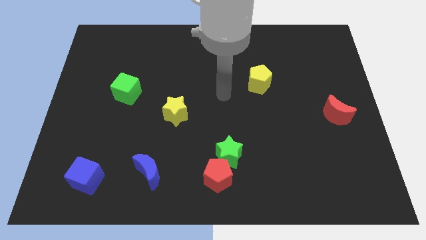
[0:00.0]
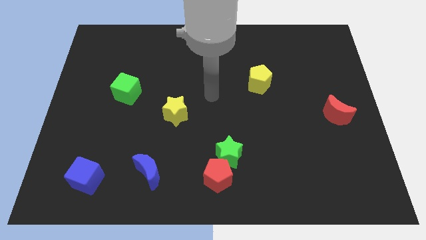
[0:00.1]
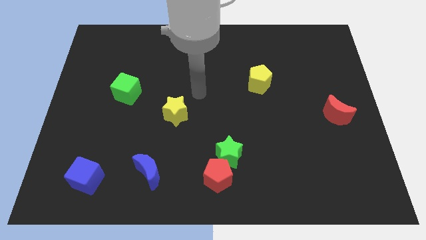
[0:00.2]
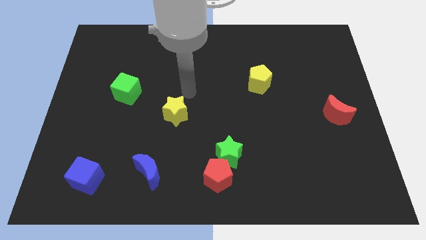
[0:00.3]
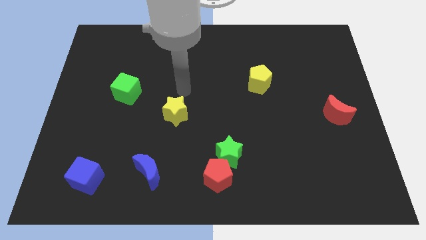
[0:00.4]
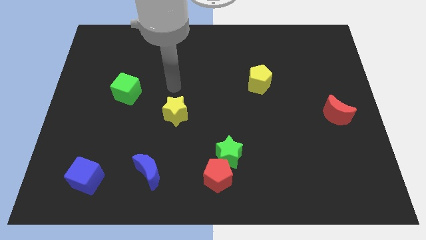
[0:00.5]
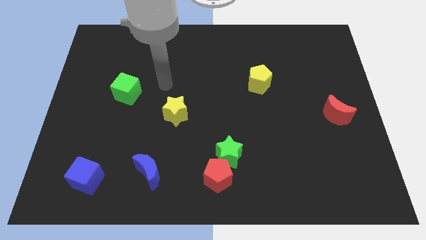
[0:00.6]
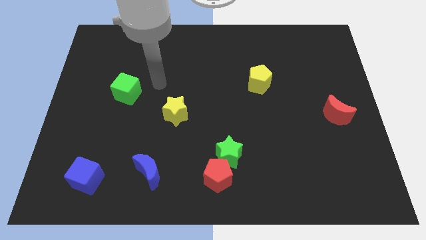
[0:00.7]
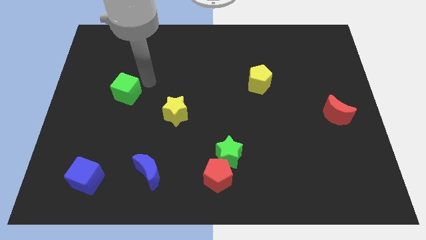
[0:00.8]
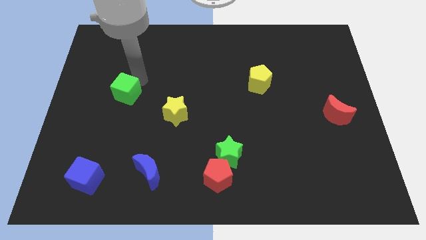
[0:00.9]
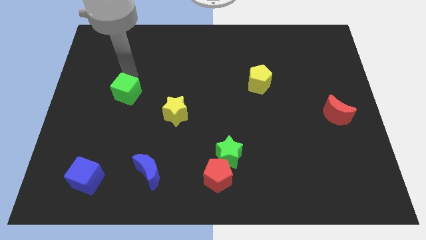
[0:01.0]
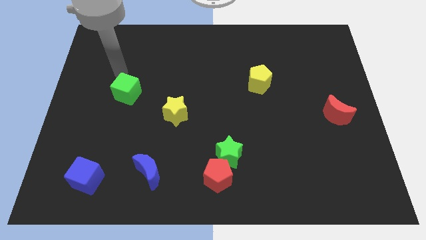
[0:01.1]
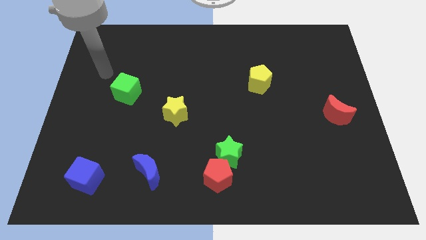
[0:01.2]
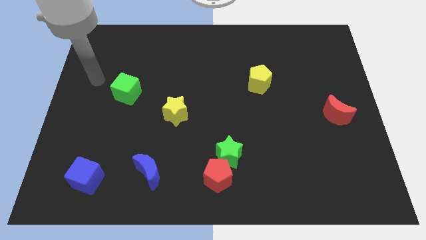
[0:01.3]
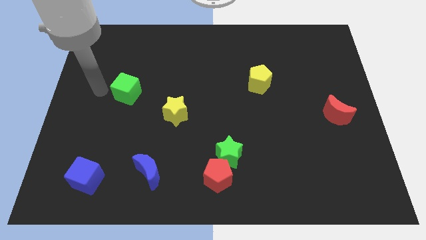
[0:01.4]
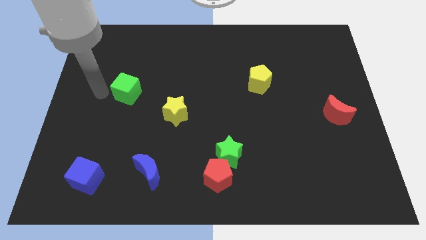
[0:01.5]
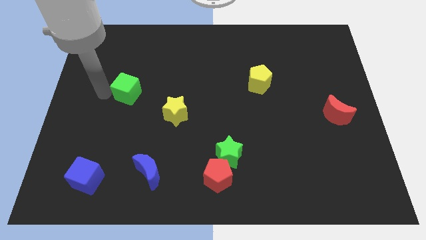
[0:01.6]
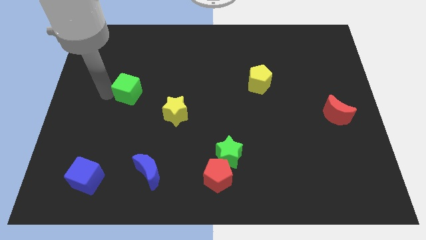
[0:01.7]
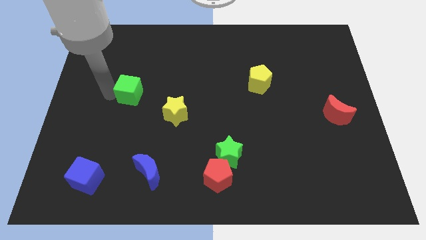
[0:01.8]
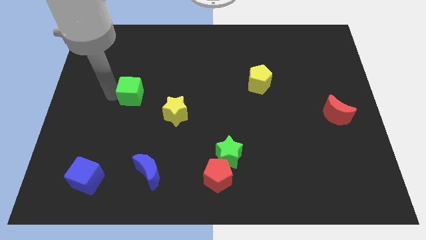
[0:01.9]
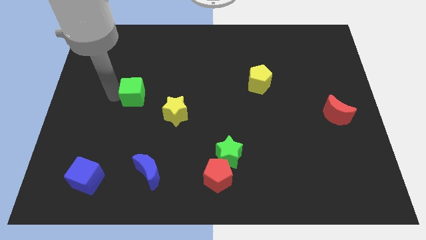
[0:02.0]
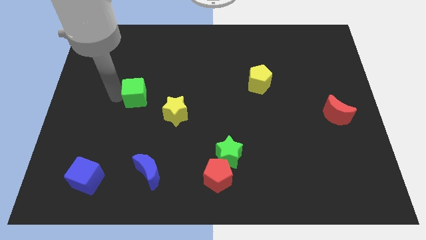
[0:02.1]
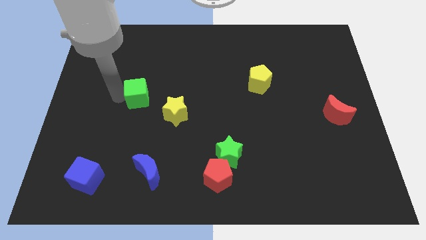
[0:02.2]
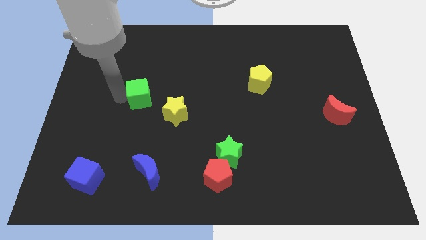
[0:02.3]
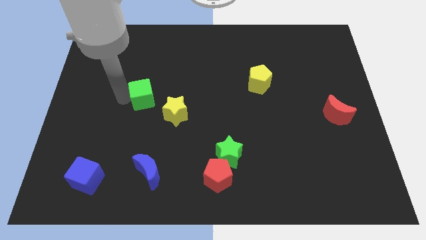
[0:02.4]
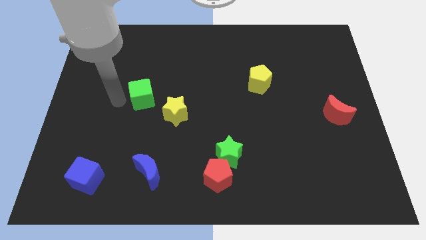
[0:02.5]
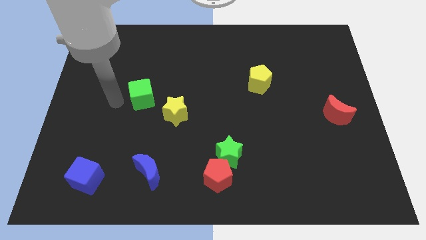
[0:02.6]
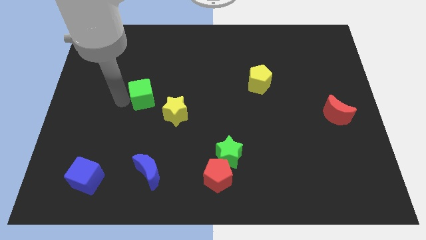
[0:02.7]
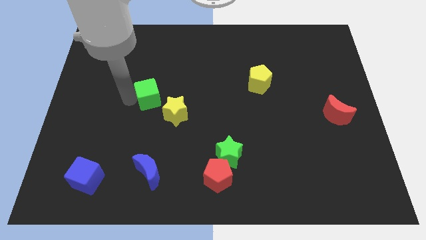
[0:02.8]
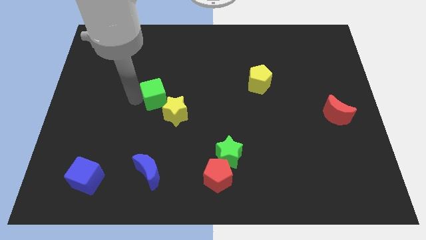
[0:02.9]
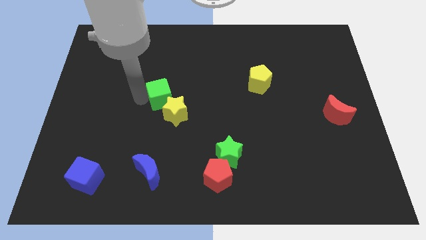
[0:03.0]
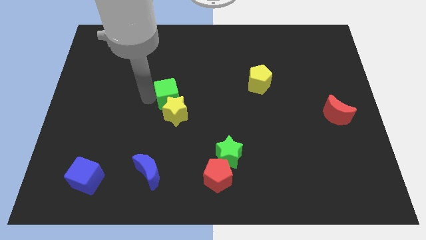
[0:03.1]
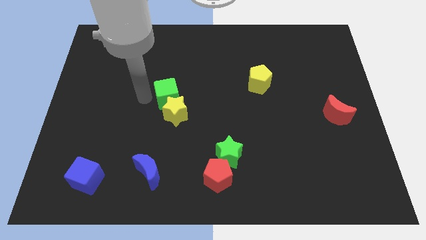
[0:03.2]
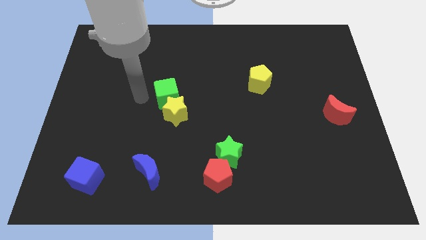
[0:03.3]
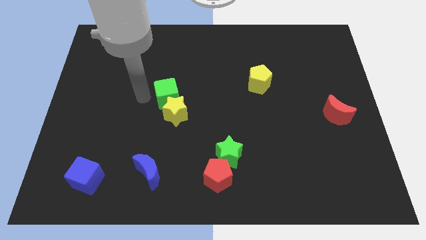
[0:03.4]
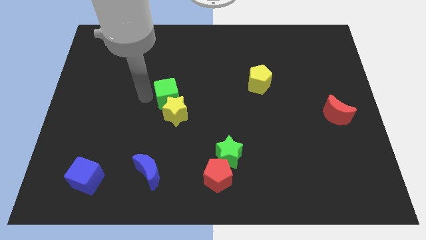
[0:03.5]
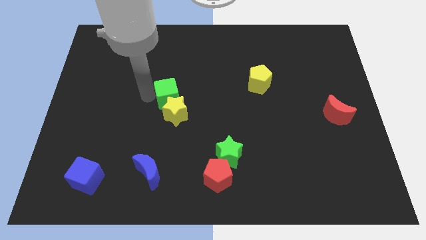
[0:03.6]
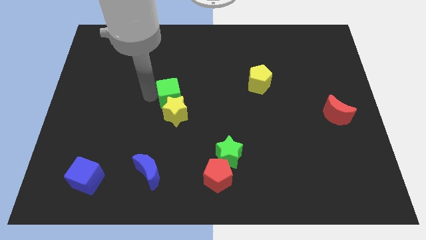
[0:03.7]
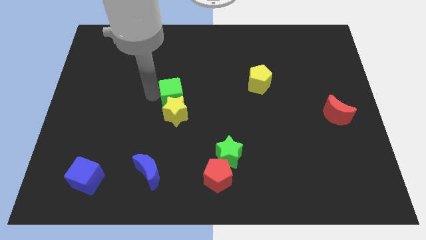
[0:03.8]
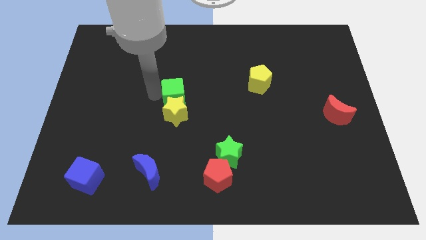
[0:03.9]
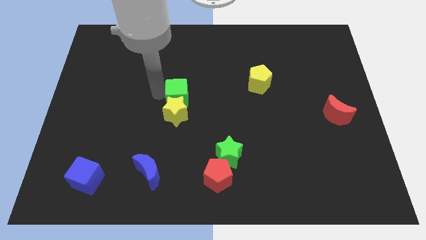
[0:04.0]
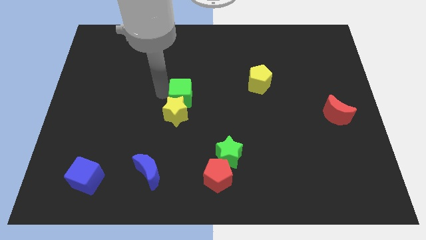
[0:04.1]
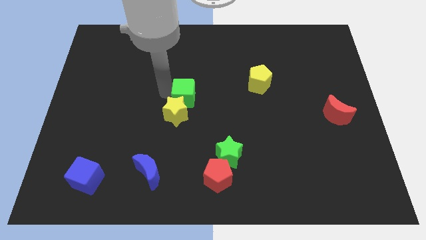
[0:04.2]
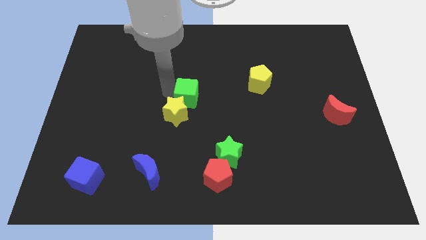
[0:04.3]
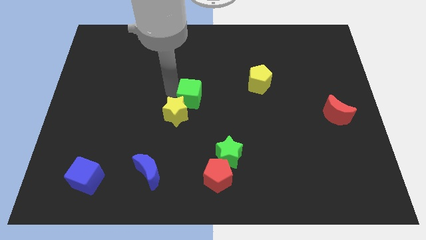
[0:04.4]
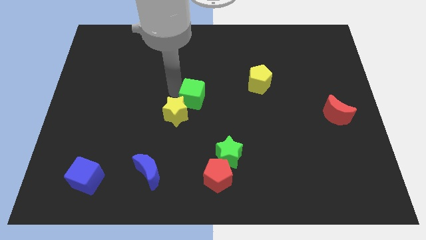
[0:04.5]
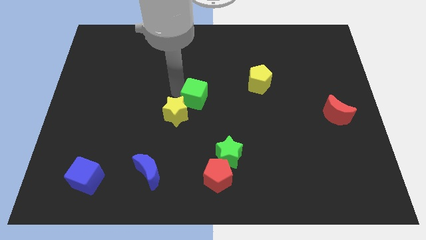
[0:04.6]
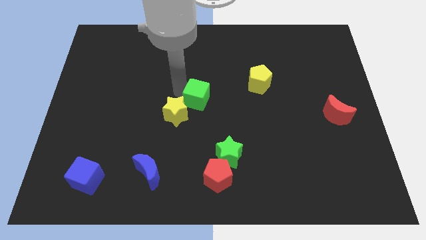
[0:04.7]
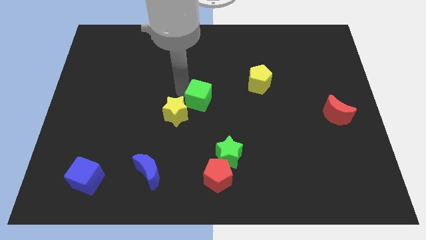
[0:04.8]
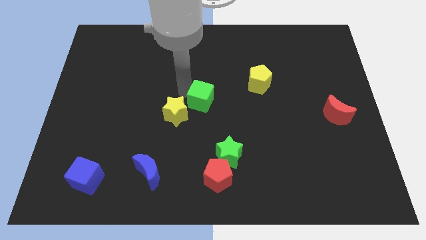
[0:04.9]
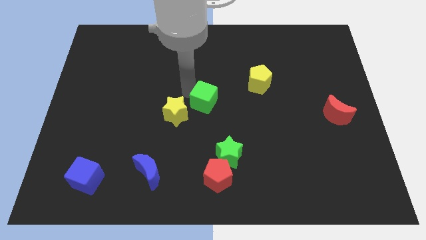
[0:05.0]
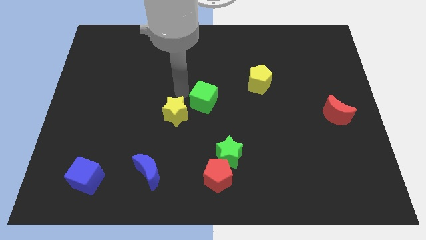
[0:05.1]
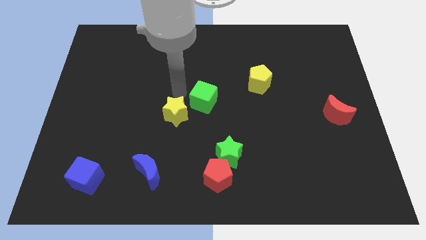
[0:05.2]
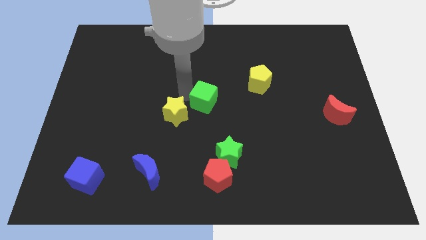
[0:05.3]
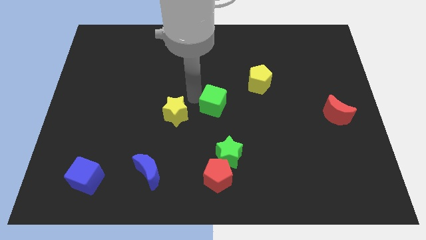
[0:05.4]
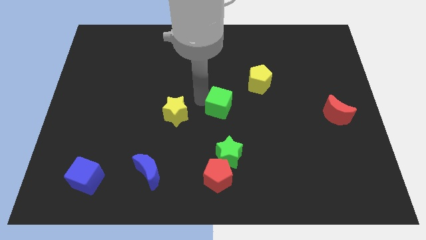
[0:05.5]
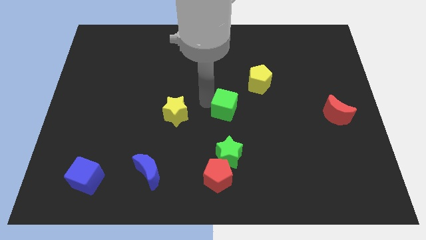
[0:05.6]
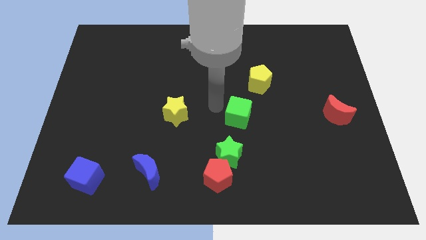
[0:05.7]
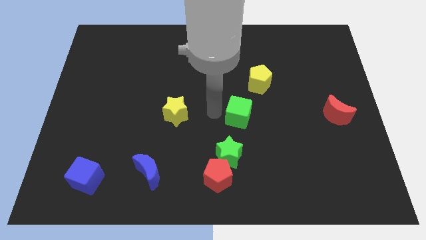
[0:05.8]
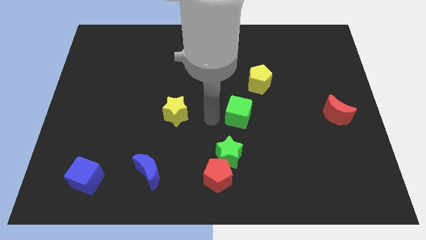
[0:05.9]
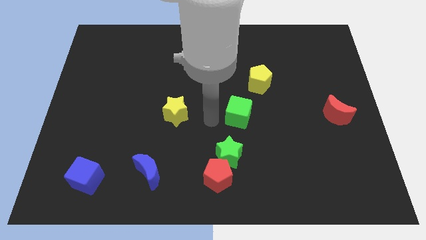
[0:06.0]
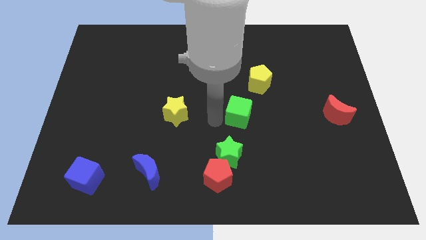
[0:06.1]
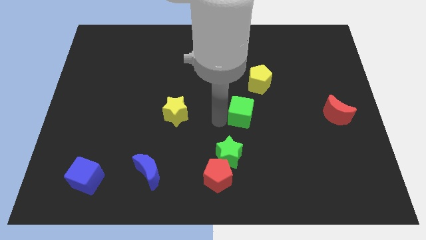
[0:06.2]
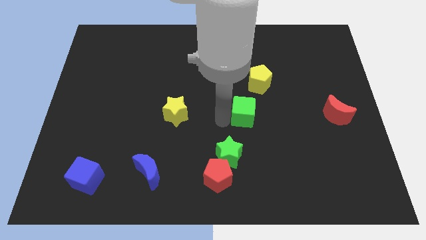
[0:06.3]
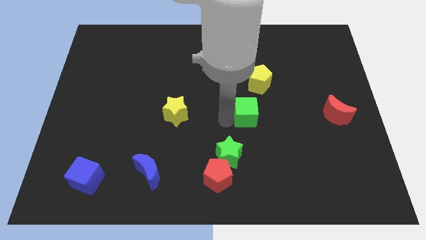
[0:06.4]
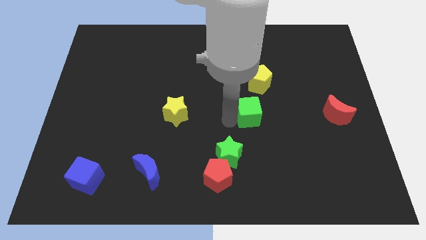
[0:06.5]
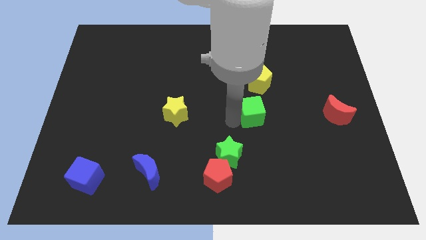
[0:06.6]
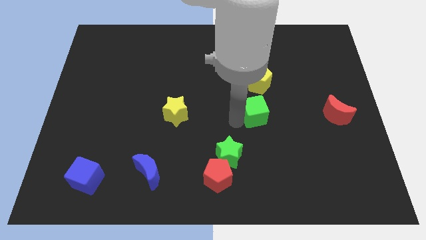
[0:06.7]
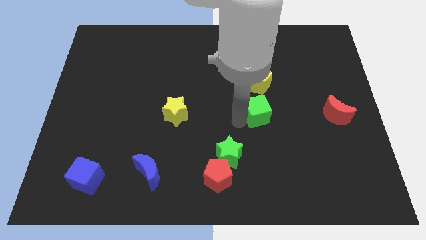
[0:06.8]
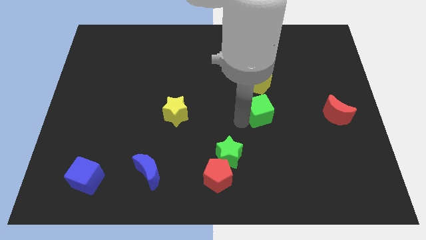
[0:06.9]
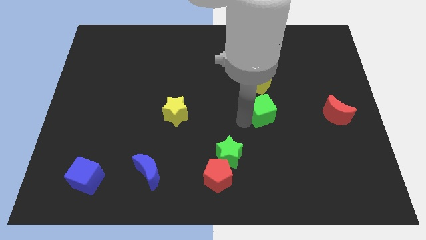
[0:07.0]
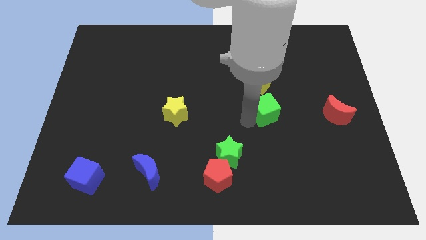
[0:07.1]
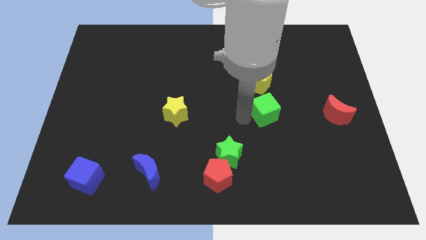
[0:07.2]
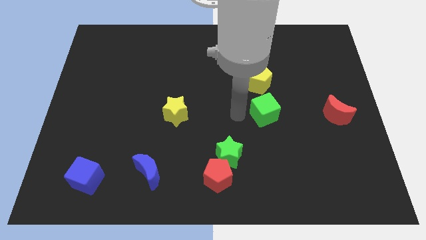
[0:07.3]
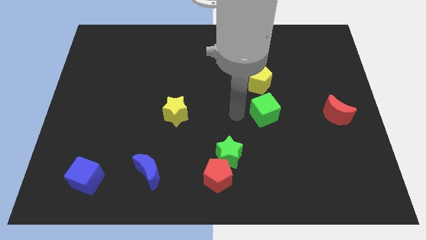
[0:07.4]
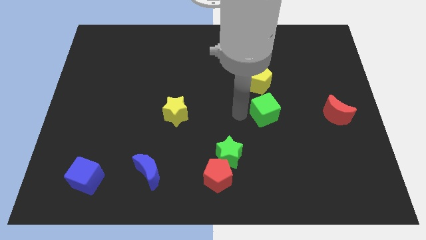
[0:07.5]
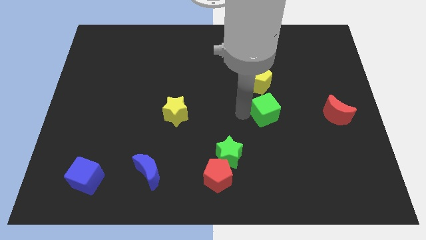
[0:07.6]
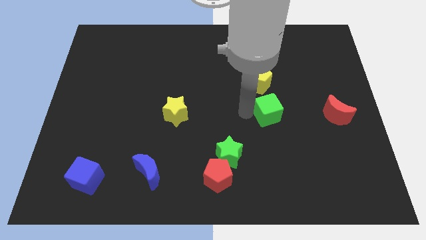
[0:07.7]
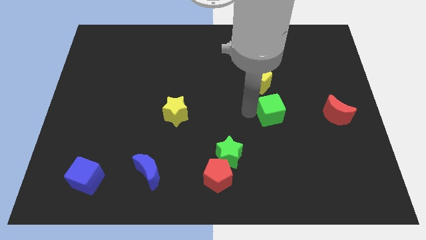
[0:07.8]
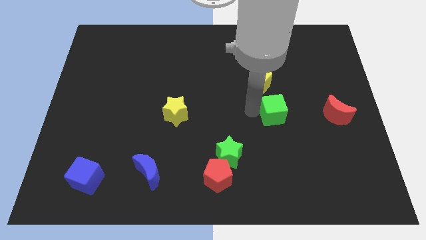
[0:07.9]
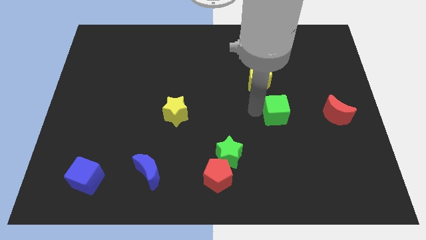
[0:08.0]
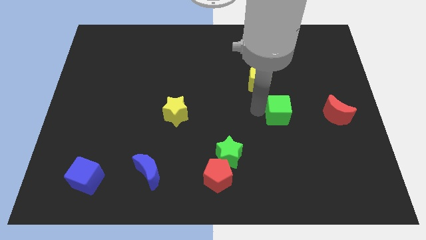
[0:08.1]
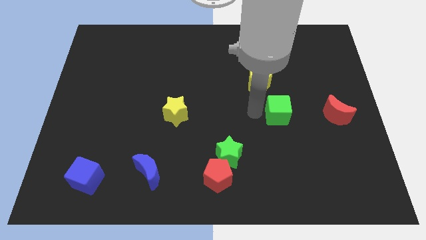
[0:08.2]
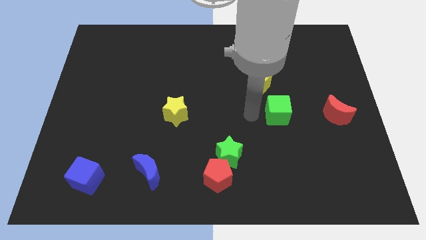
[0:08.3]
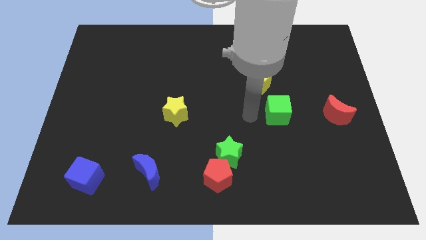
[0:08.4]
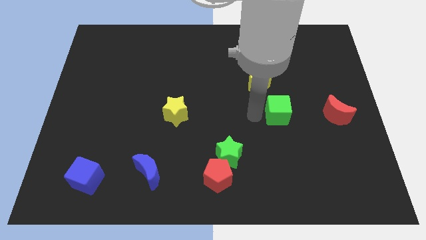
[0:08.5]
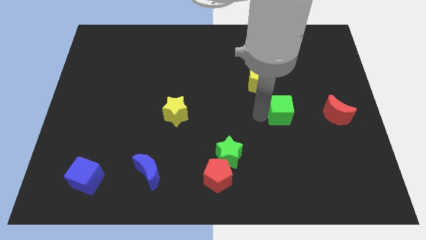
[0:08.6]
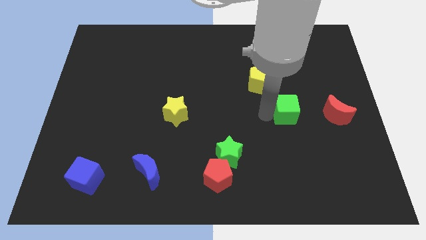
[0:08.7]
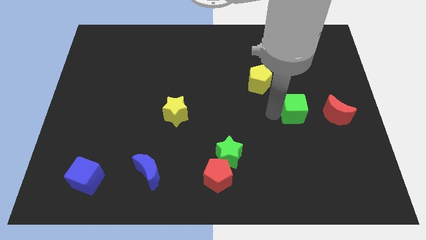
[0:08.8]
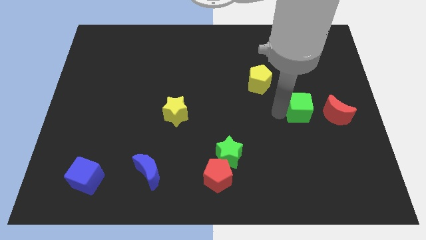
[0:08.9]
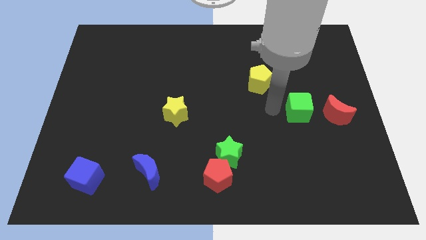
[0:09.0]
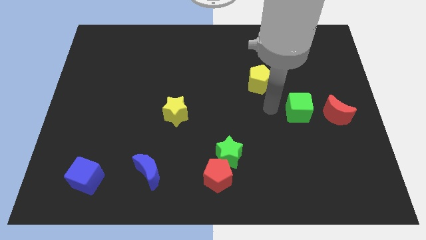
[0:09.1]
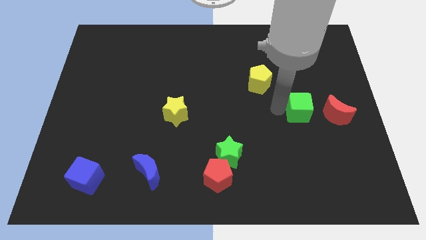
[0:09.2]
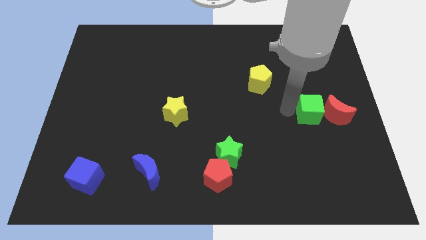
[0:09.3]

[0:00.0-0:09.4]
put the green cube to the red moon
